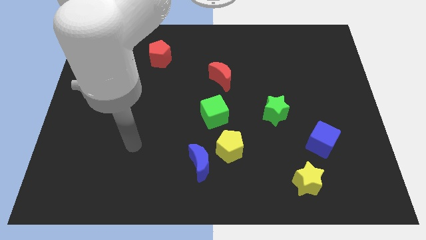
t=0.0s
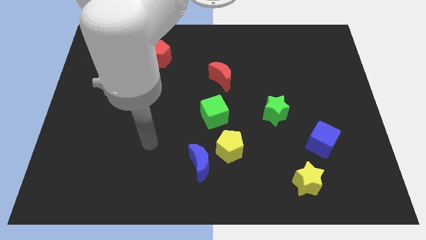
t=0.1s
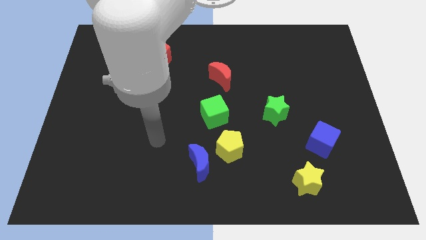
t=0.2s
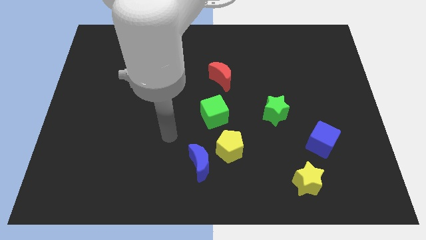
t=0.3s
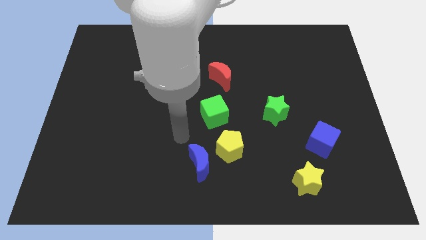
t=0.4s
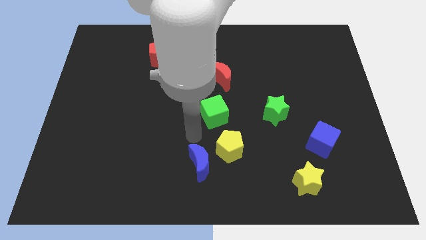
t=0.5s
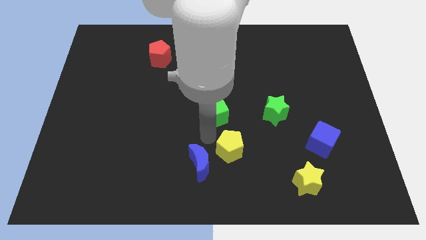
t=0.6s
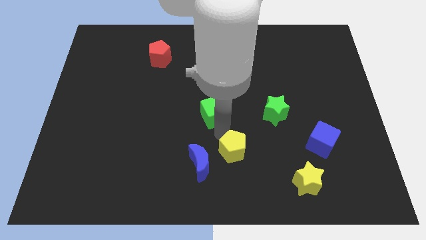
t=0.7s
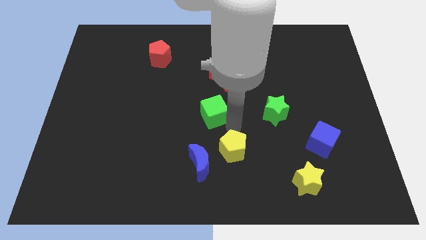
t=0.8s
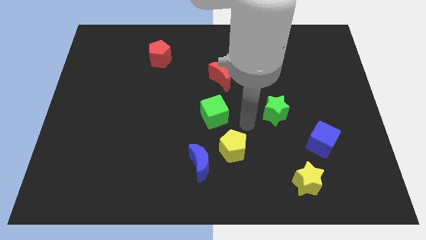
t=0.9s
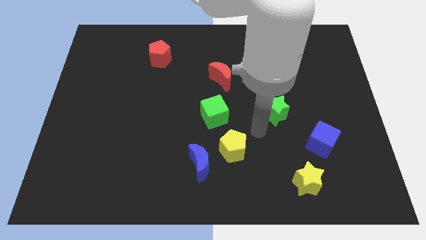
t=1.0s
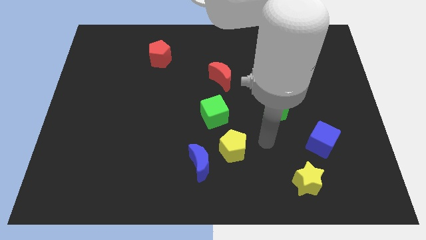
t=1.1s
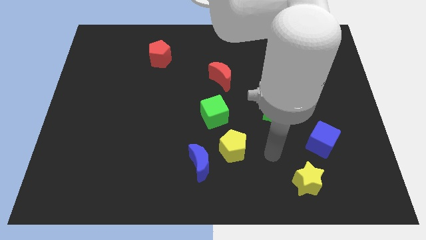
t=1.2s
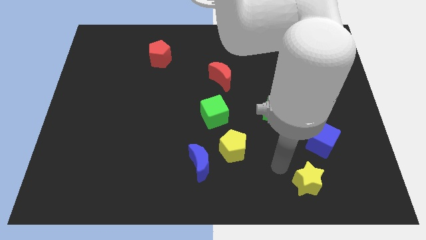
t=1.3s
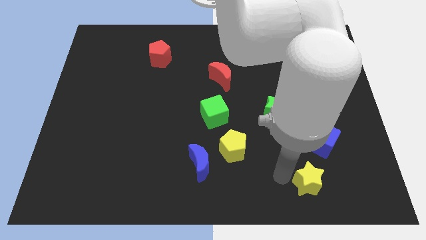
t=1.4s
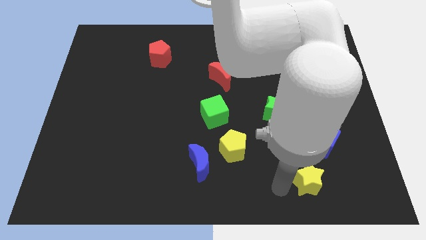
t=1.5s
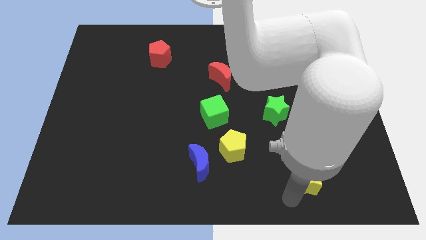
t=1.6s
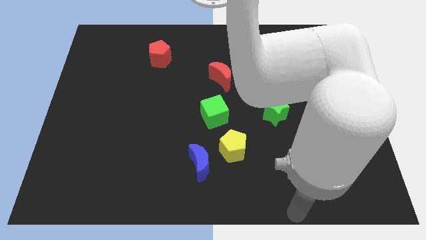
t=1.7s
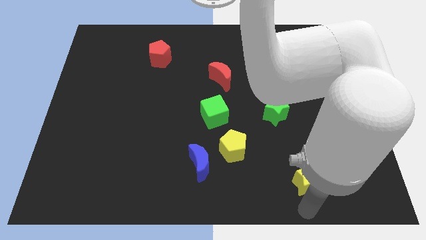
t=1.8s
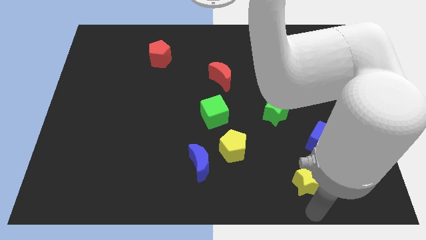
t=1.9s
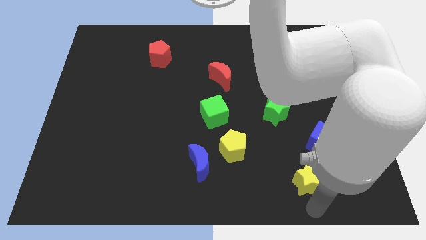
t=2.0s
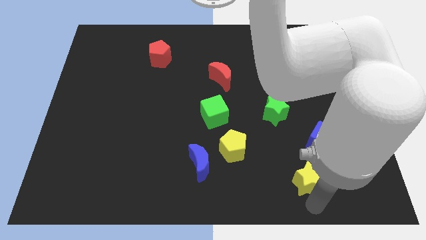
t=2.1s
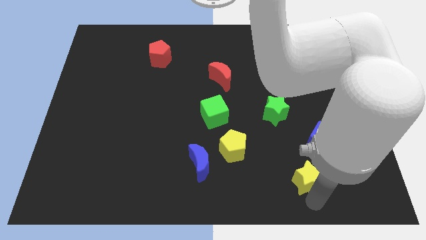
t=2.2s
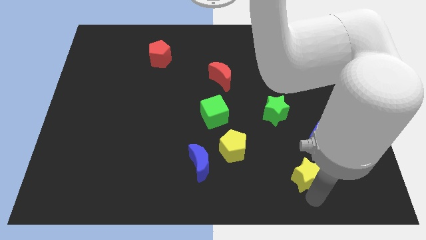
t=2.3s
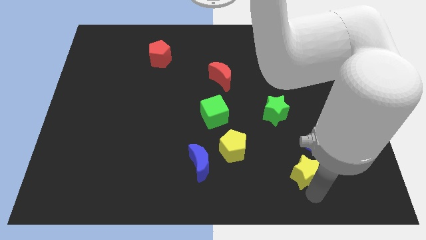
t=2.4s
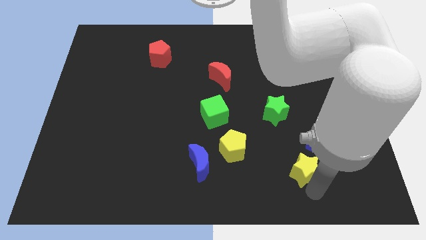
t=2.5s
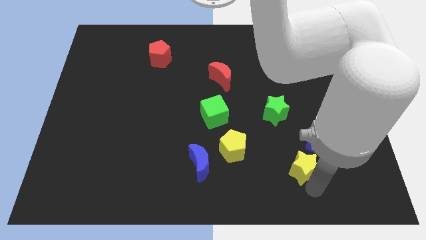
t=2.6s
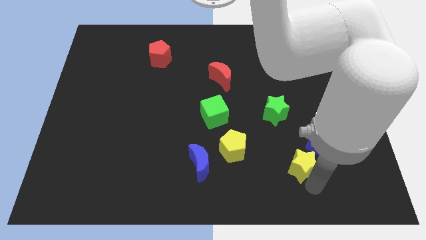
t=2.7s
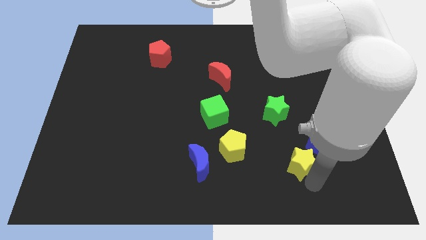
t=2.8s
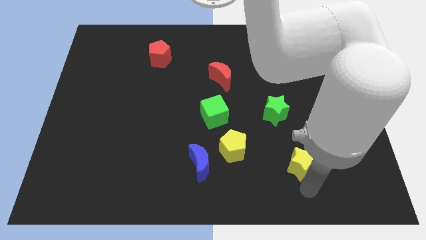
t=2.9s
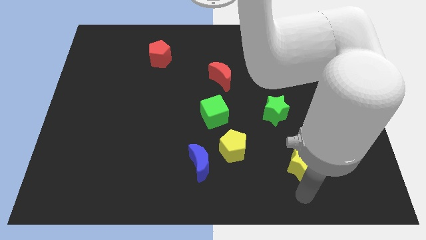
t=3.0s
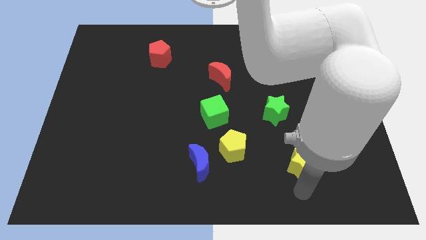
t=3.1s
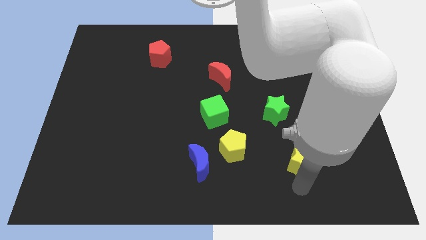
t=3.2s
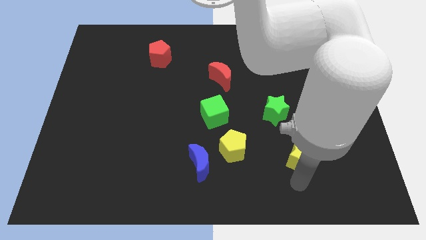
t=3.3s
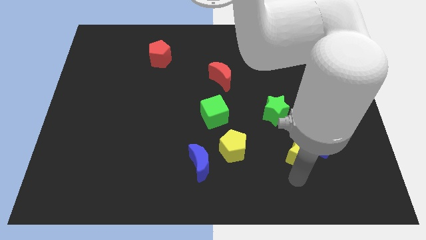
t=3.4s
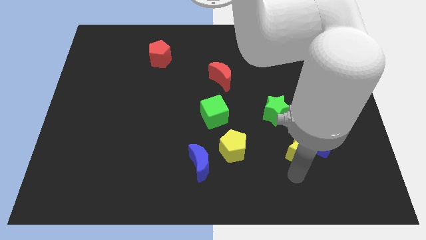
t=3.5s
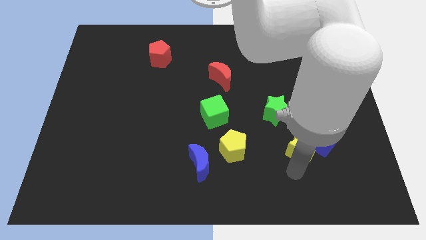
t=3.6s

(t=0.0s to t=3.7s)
push the yellow star a little up

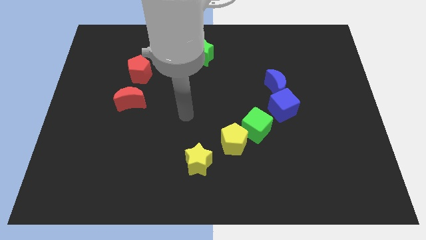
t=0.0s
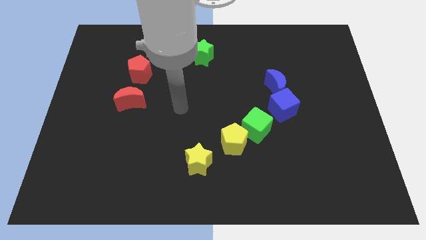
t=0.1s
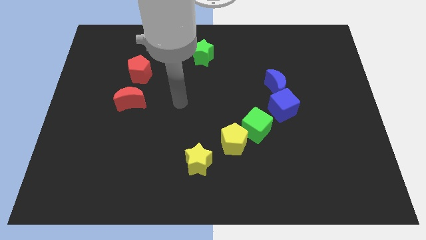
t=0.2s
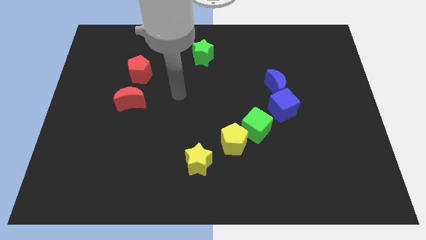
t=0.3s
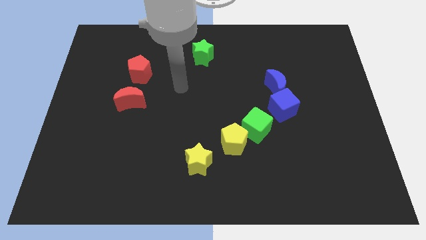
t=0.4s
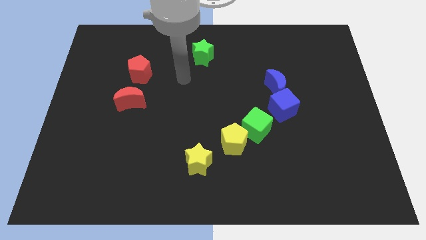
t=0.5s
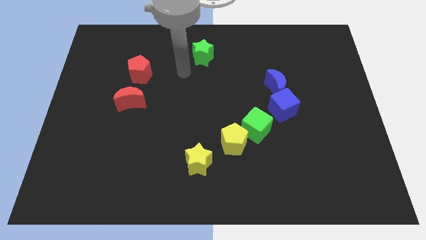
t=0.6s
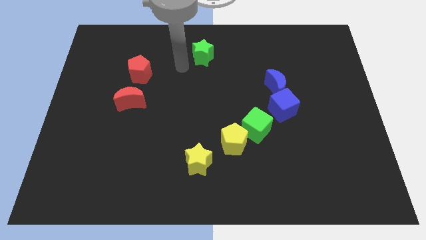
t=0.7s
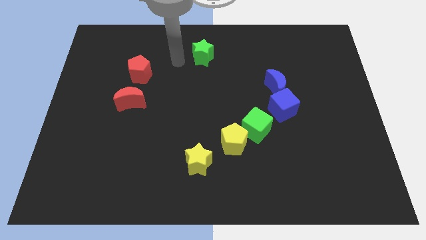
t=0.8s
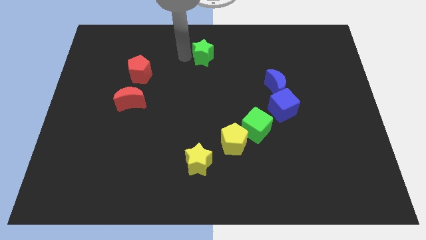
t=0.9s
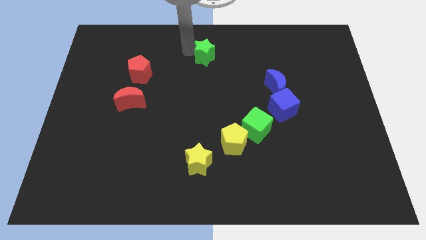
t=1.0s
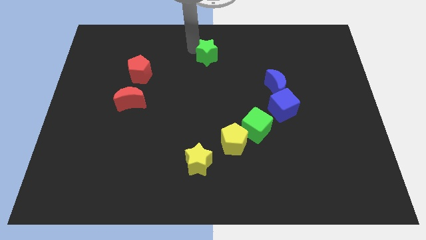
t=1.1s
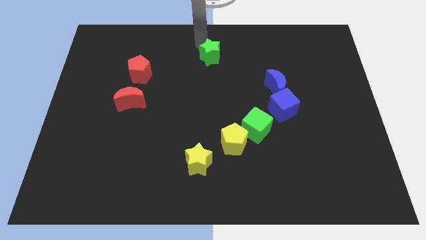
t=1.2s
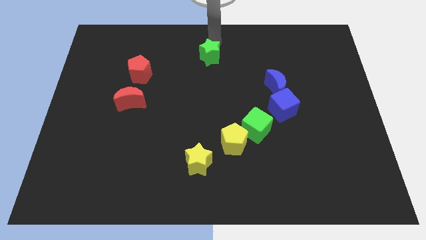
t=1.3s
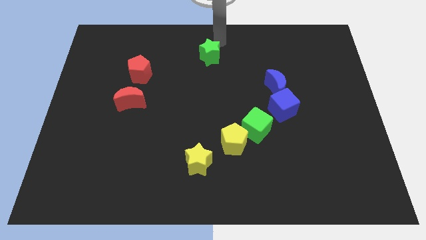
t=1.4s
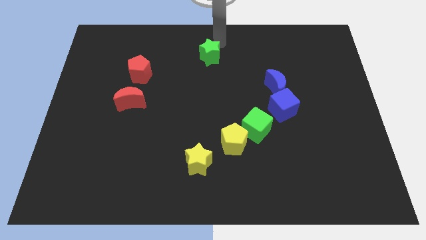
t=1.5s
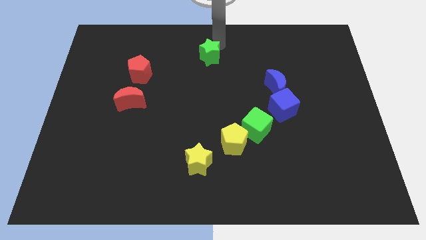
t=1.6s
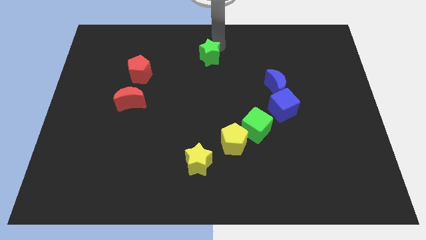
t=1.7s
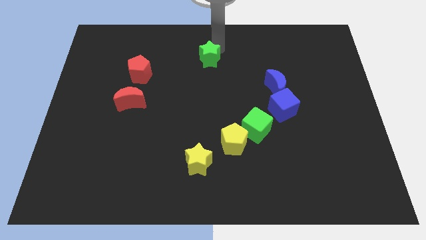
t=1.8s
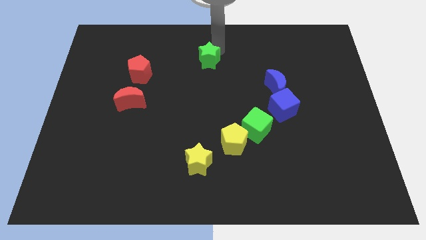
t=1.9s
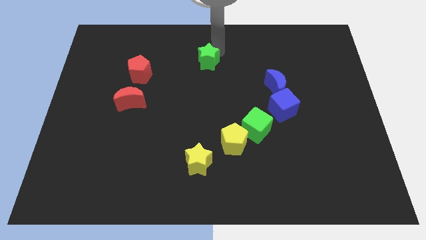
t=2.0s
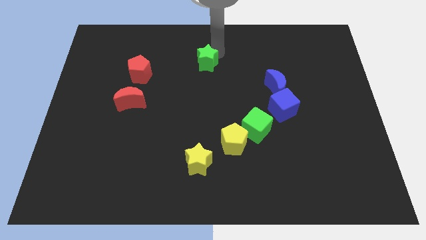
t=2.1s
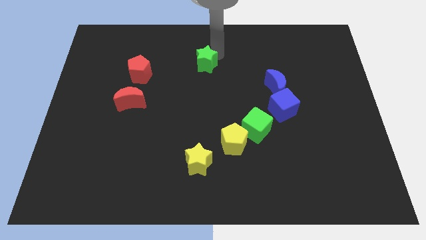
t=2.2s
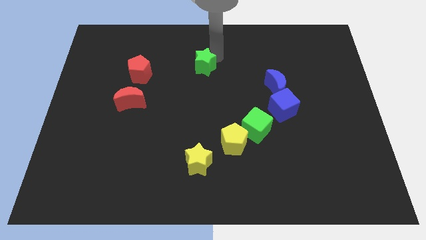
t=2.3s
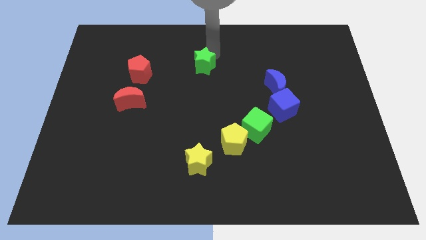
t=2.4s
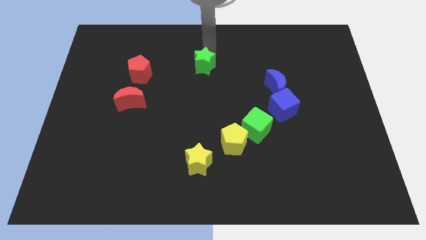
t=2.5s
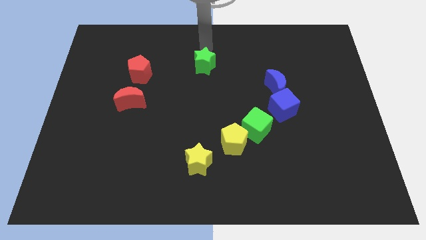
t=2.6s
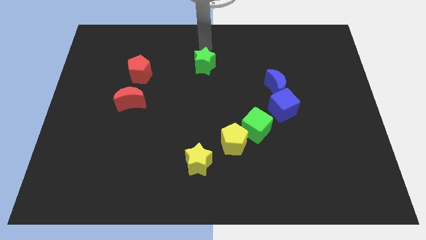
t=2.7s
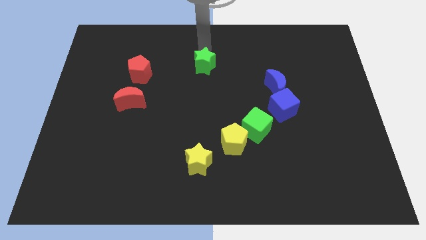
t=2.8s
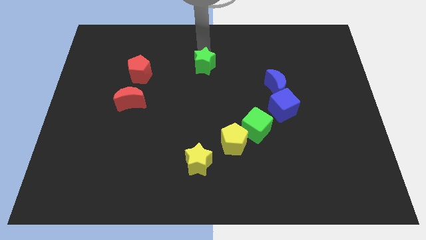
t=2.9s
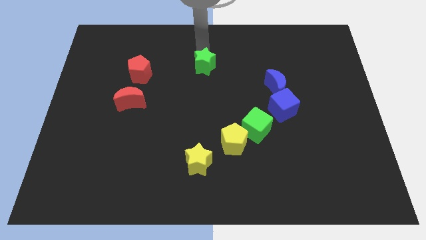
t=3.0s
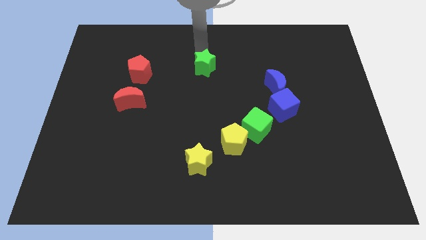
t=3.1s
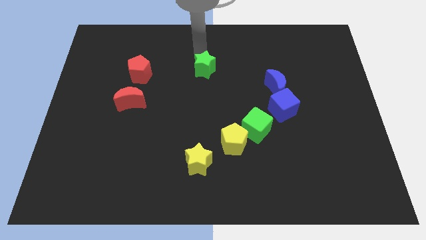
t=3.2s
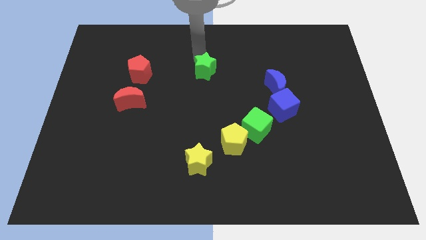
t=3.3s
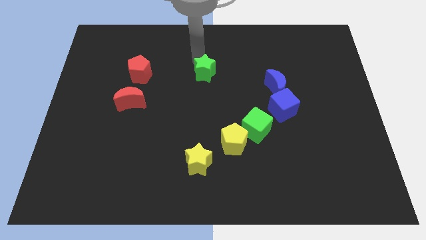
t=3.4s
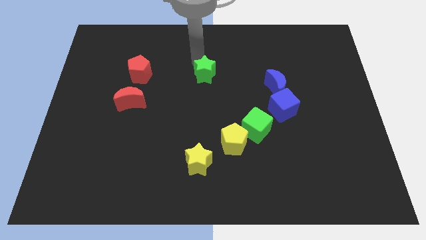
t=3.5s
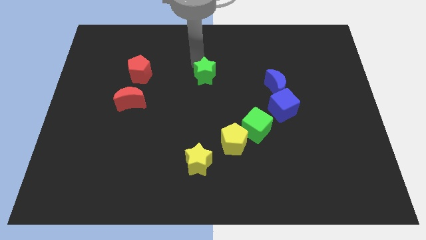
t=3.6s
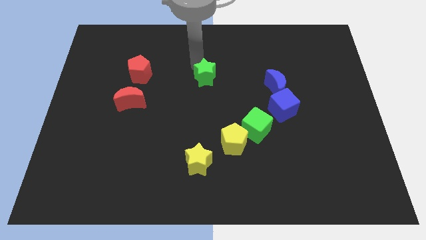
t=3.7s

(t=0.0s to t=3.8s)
push the green star down a little

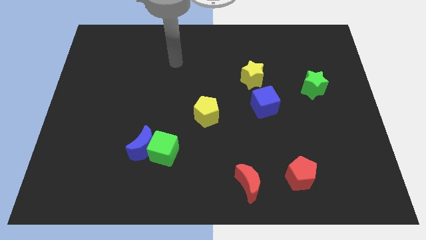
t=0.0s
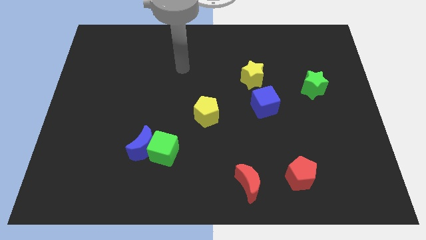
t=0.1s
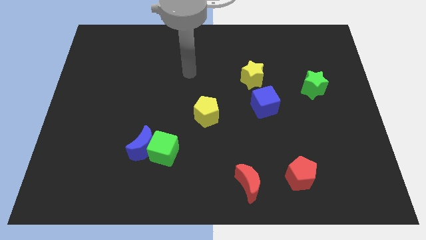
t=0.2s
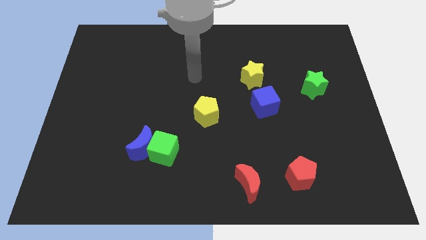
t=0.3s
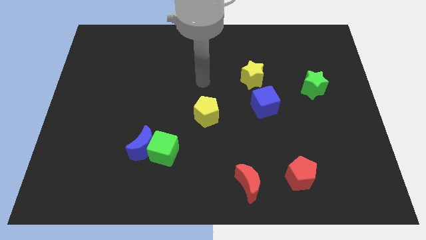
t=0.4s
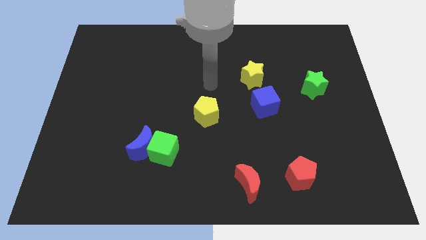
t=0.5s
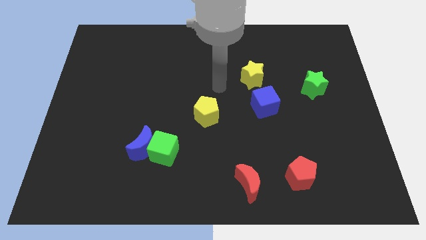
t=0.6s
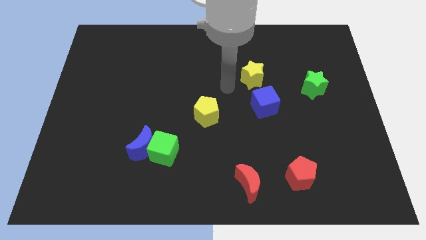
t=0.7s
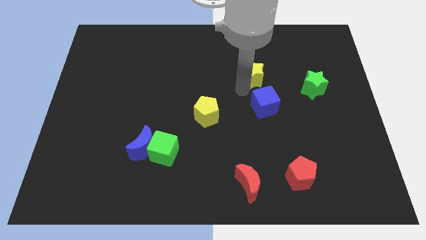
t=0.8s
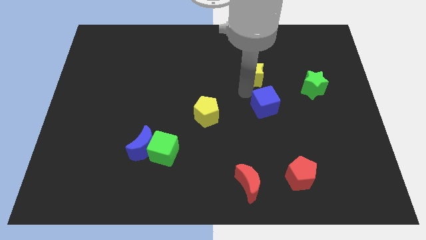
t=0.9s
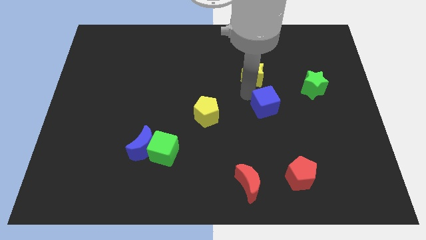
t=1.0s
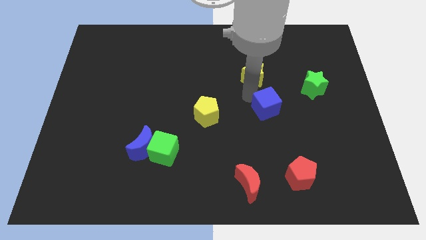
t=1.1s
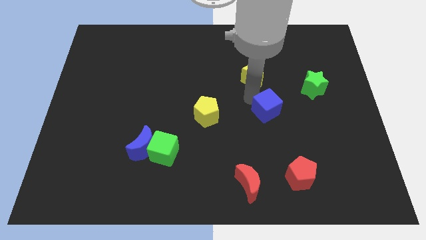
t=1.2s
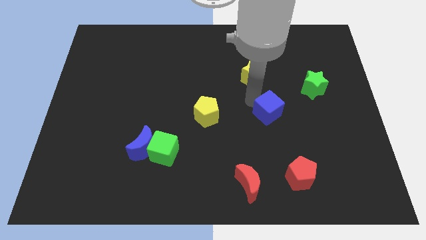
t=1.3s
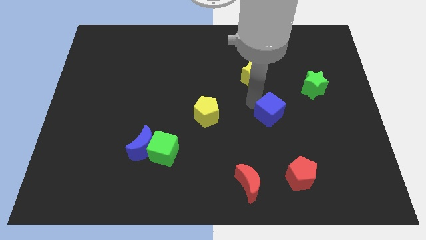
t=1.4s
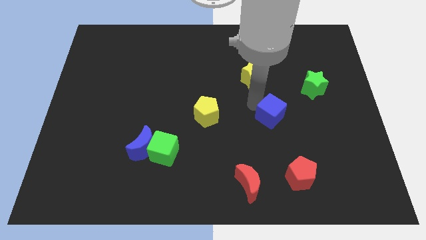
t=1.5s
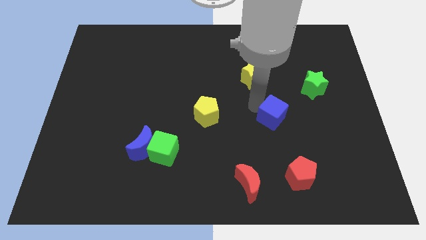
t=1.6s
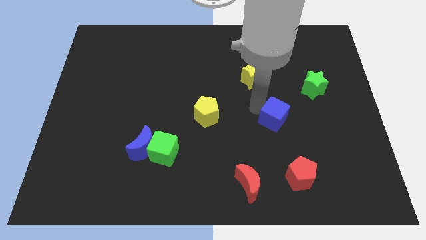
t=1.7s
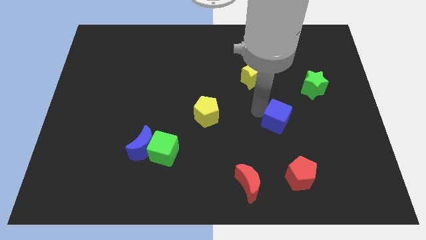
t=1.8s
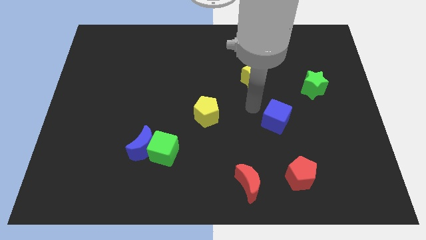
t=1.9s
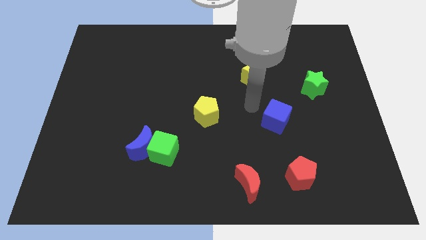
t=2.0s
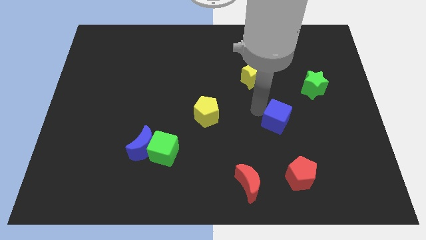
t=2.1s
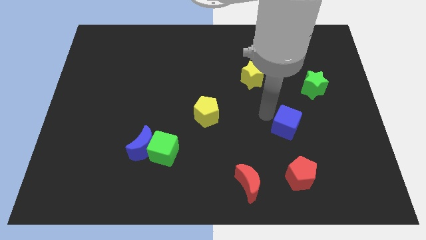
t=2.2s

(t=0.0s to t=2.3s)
slide the blue cube down and right slightly
